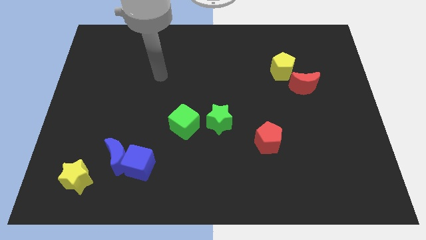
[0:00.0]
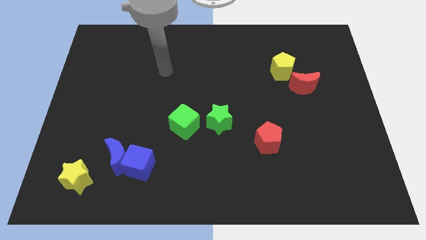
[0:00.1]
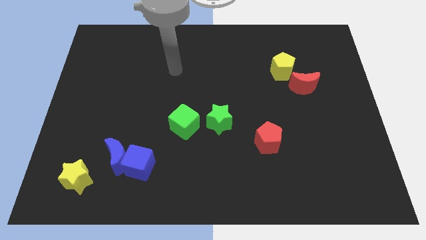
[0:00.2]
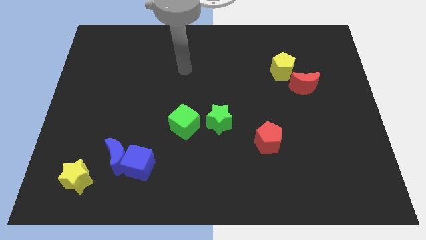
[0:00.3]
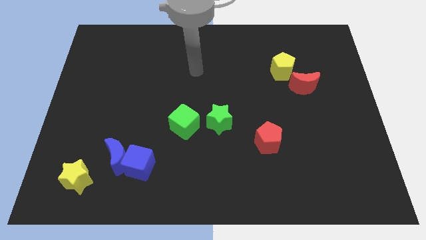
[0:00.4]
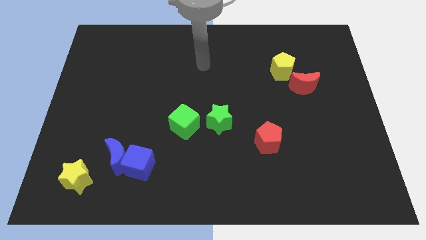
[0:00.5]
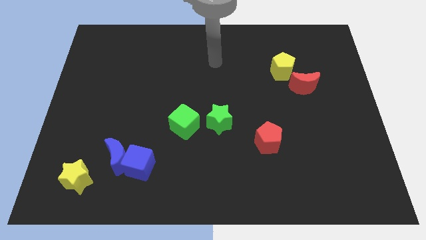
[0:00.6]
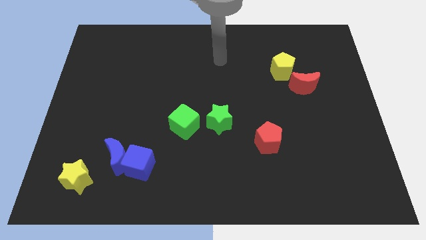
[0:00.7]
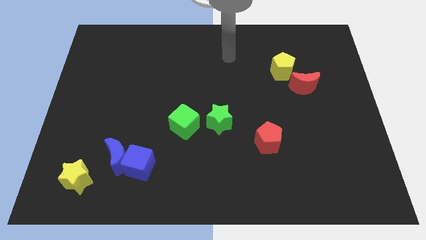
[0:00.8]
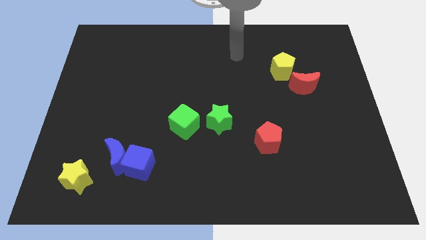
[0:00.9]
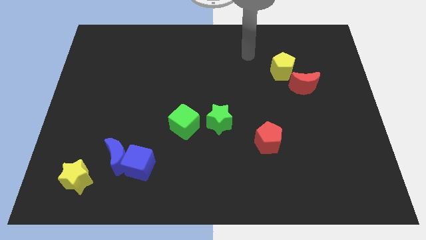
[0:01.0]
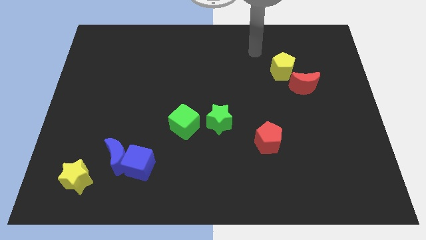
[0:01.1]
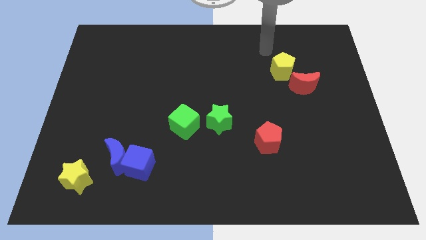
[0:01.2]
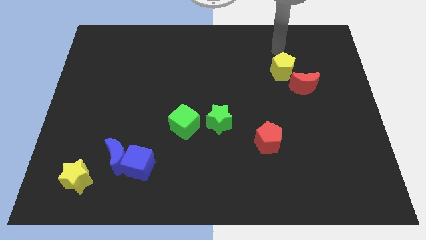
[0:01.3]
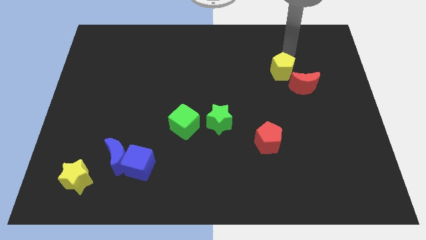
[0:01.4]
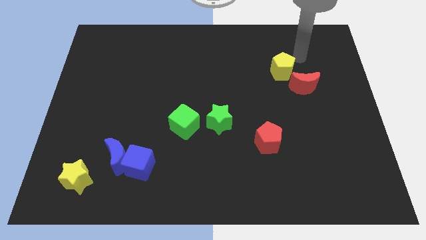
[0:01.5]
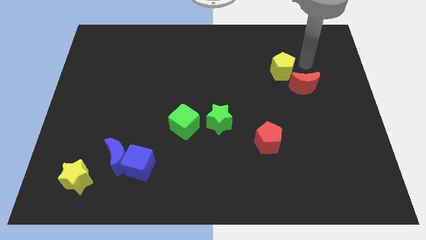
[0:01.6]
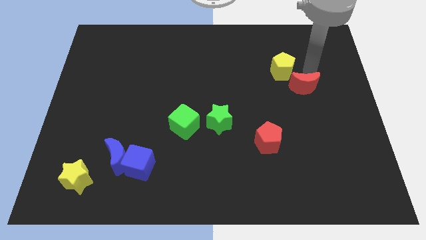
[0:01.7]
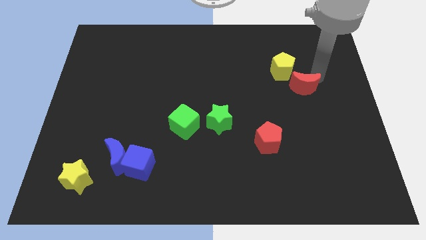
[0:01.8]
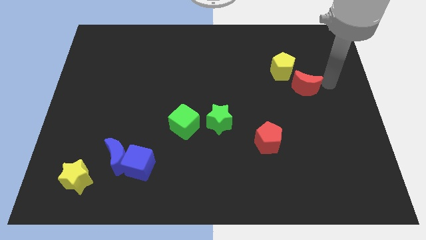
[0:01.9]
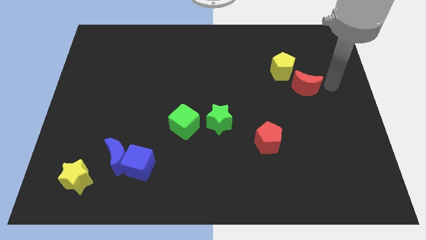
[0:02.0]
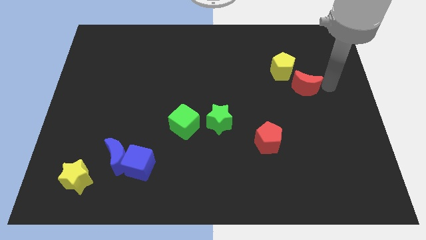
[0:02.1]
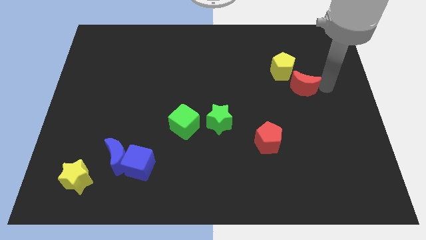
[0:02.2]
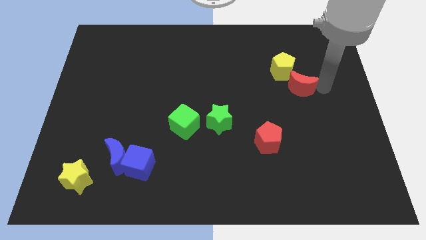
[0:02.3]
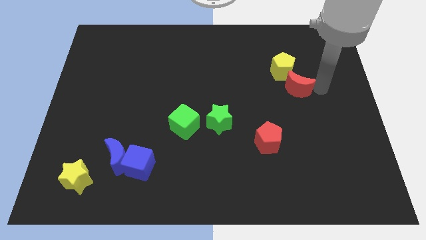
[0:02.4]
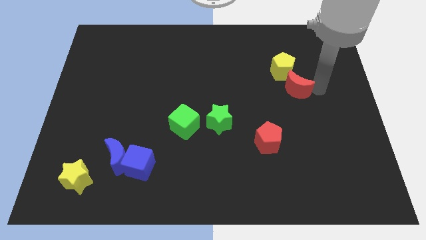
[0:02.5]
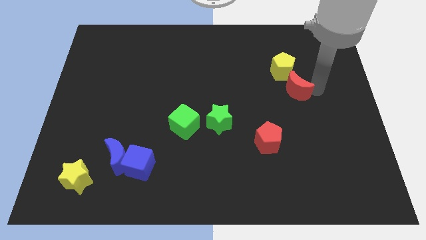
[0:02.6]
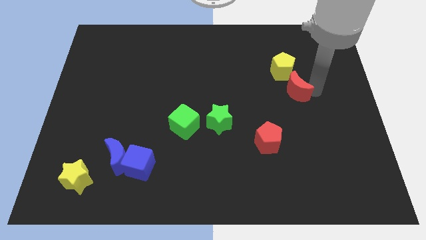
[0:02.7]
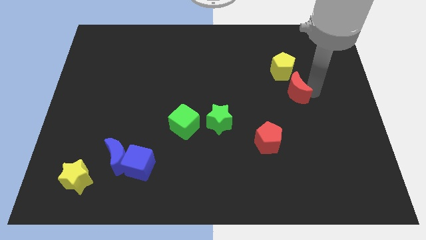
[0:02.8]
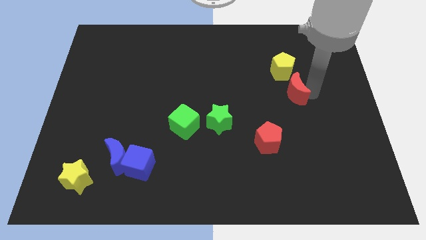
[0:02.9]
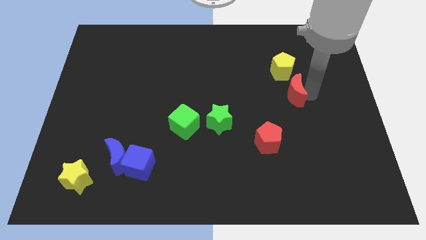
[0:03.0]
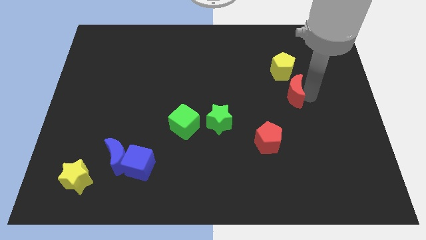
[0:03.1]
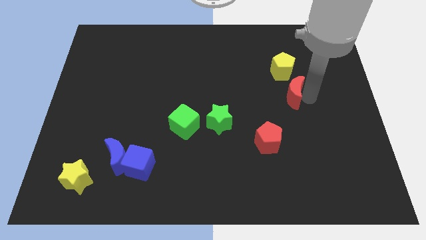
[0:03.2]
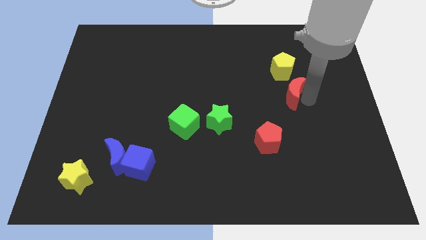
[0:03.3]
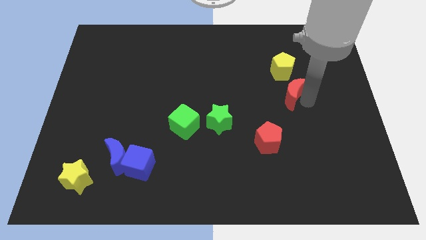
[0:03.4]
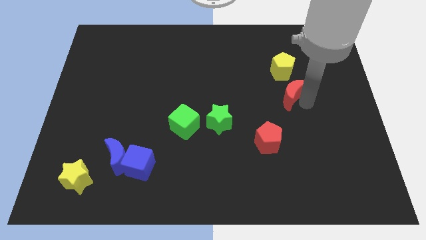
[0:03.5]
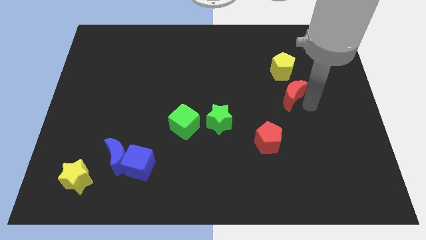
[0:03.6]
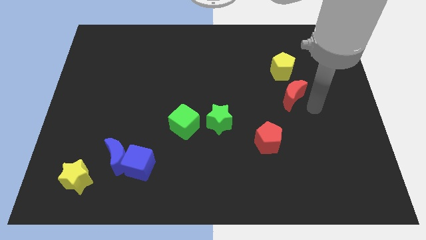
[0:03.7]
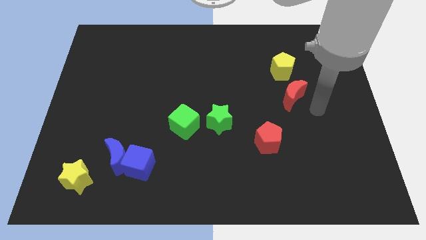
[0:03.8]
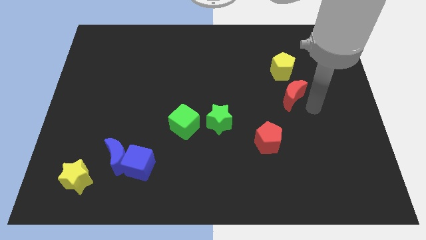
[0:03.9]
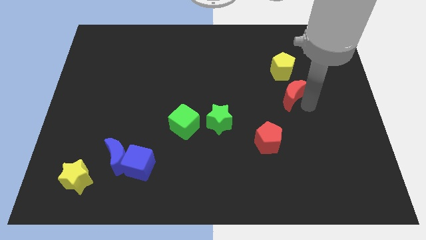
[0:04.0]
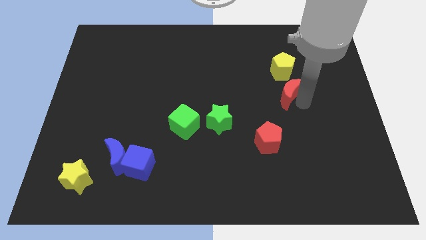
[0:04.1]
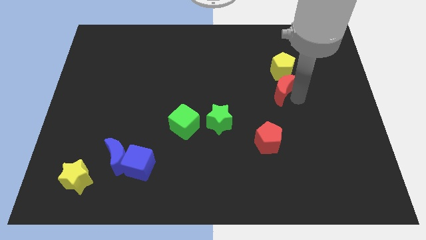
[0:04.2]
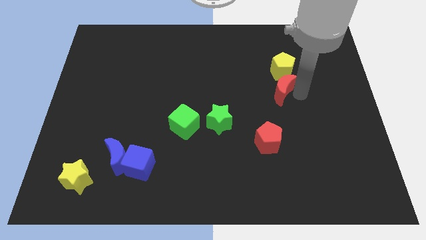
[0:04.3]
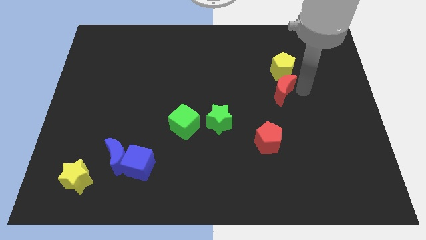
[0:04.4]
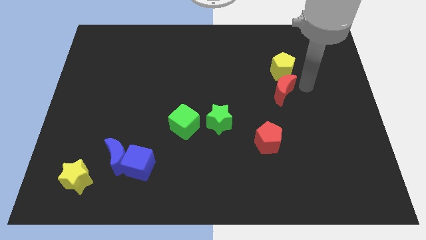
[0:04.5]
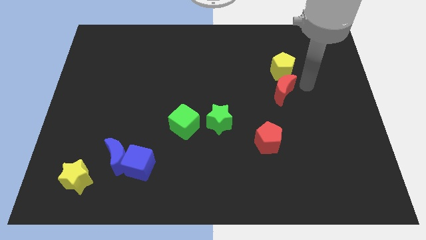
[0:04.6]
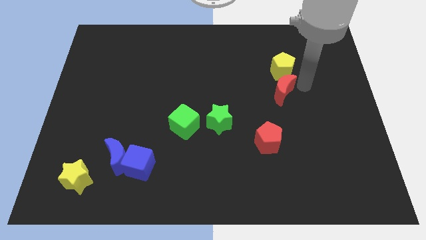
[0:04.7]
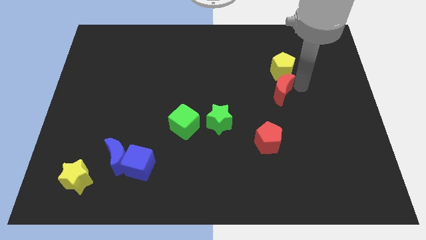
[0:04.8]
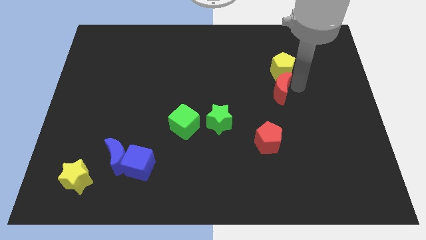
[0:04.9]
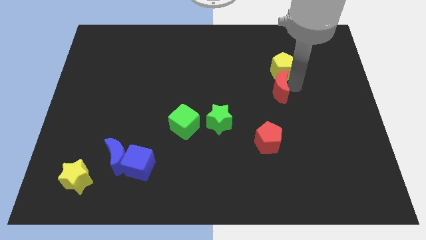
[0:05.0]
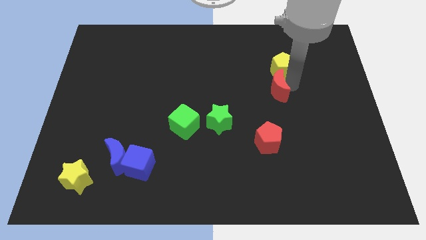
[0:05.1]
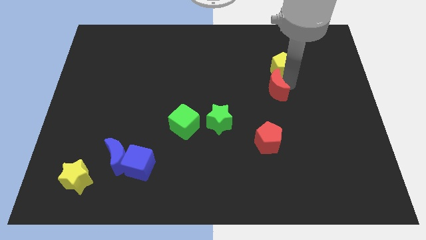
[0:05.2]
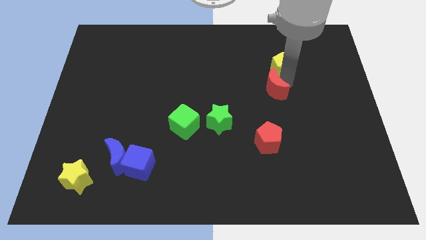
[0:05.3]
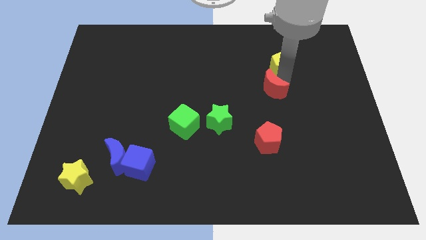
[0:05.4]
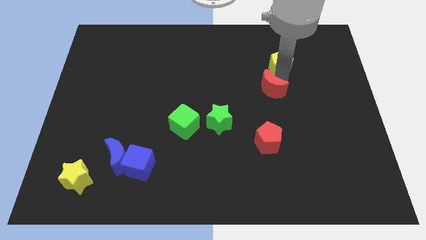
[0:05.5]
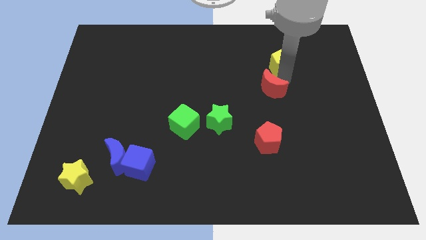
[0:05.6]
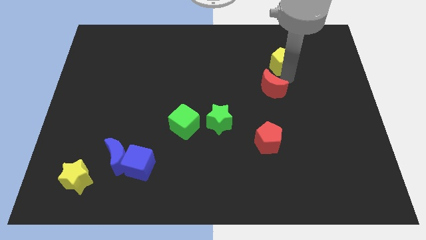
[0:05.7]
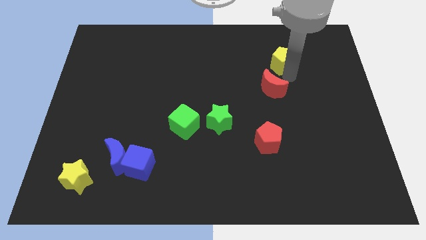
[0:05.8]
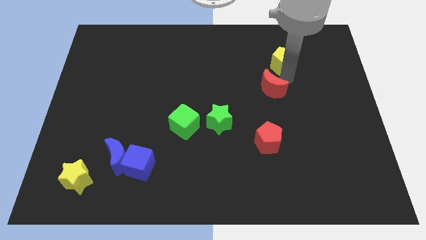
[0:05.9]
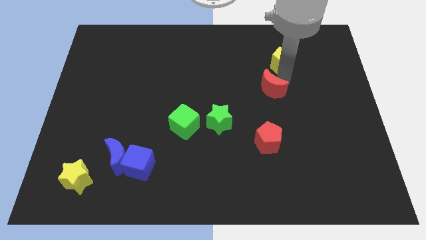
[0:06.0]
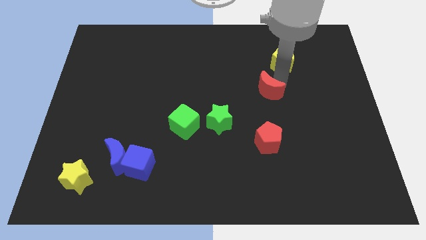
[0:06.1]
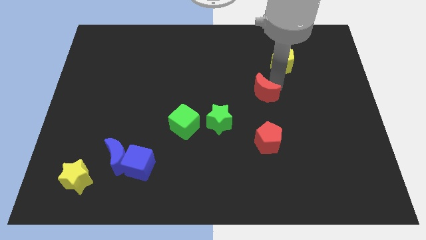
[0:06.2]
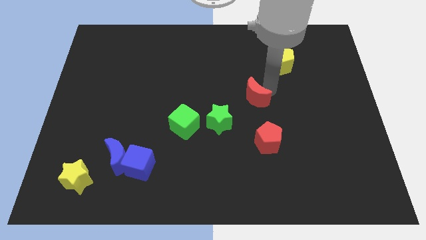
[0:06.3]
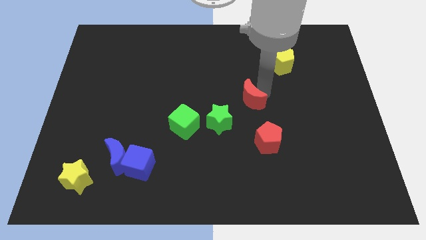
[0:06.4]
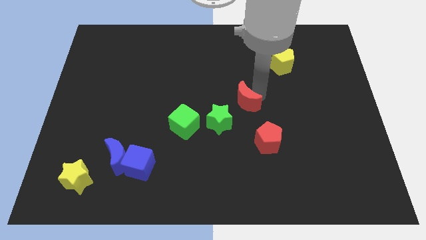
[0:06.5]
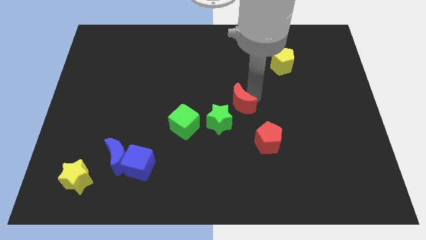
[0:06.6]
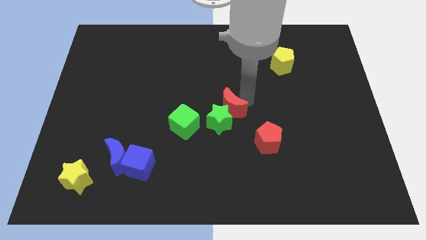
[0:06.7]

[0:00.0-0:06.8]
move the red moon close to the green star

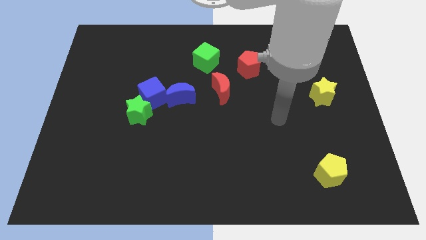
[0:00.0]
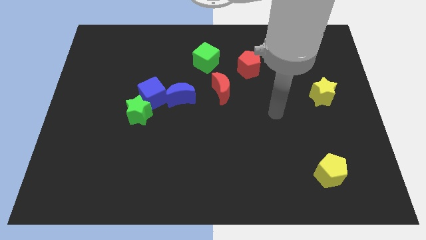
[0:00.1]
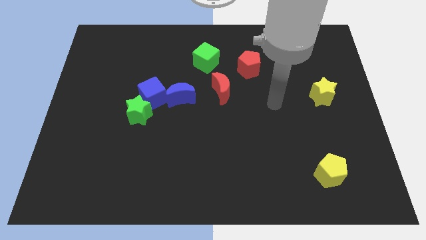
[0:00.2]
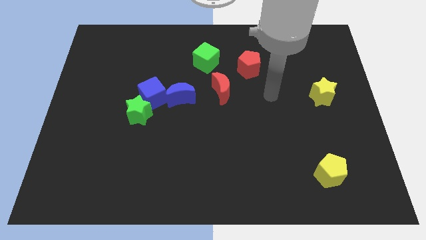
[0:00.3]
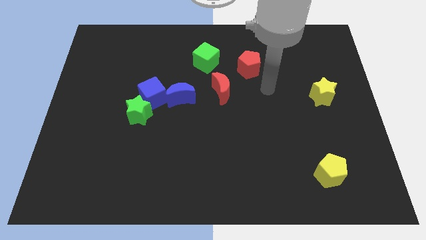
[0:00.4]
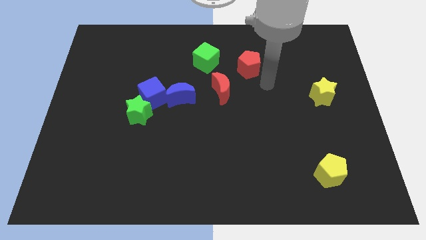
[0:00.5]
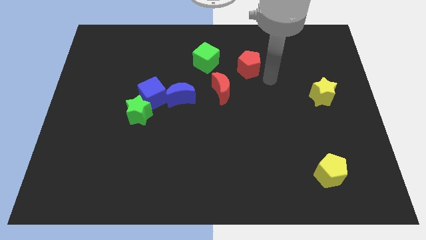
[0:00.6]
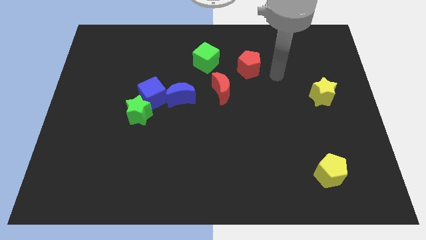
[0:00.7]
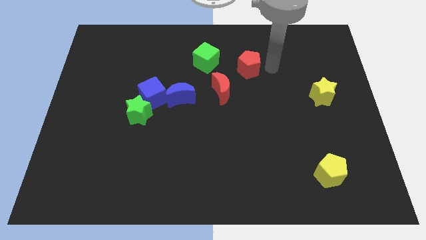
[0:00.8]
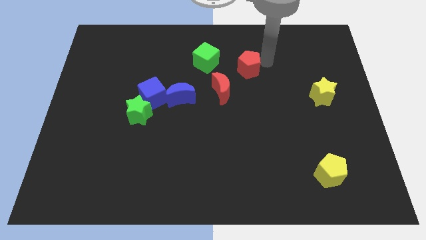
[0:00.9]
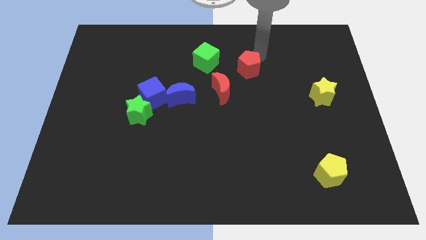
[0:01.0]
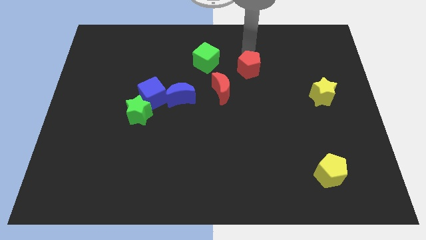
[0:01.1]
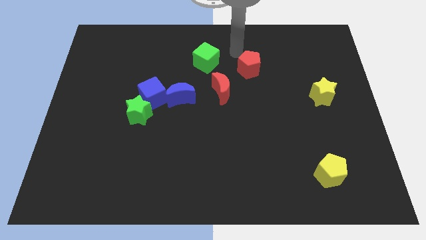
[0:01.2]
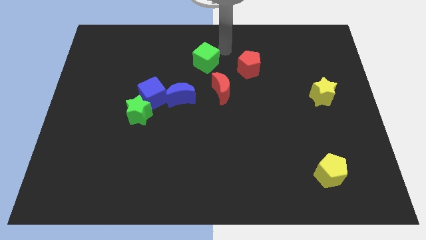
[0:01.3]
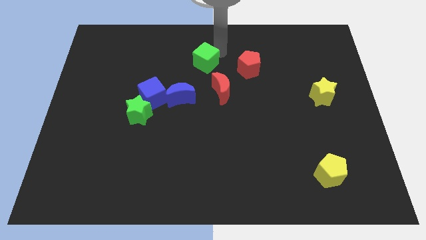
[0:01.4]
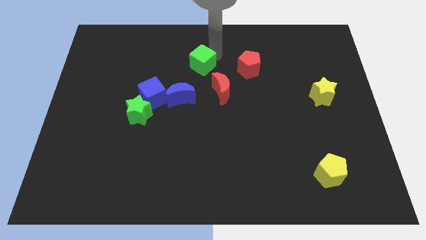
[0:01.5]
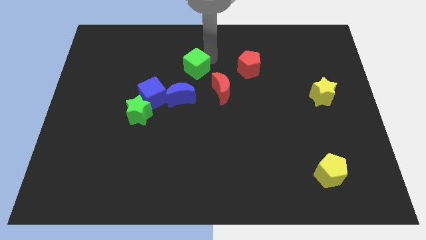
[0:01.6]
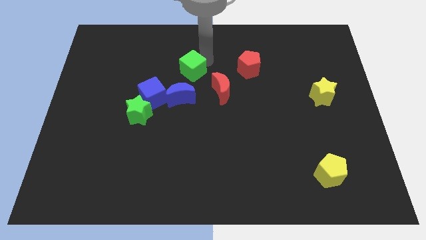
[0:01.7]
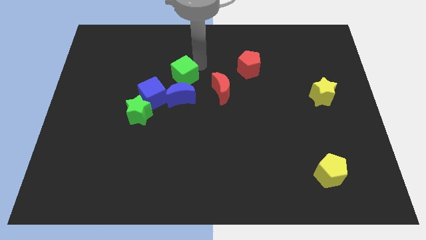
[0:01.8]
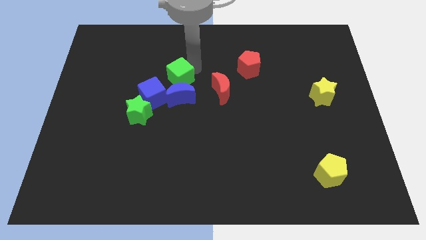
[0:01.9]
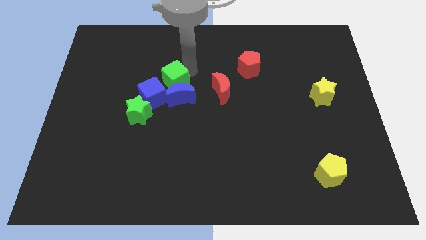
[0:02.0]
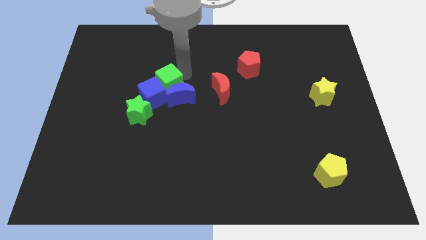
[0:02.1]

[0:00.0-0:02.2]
move the green cube to the blue cube
